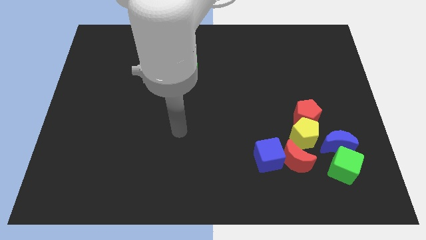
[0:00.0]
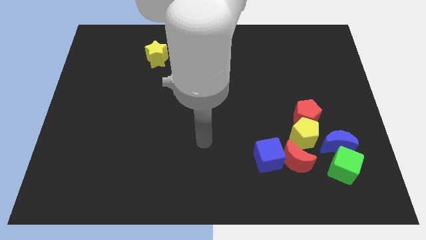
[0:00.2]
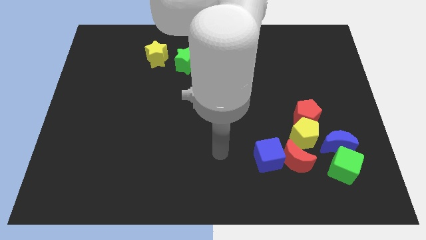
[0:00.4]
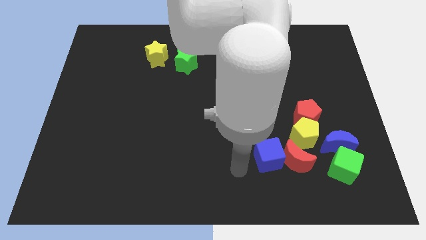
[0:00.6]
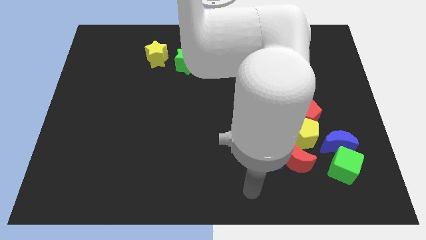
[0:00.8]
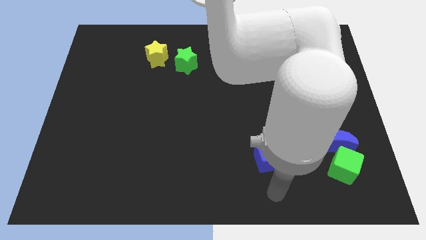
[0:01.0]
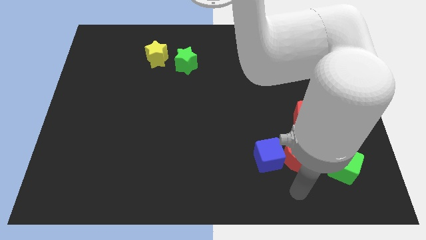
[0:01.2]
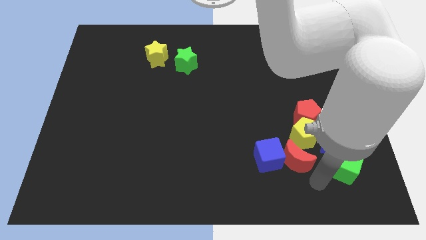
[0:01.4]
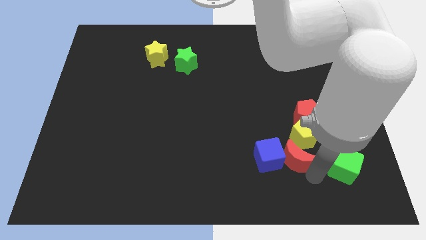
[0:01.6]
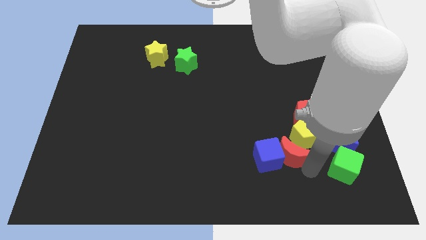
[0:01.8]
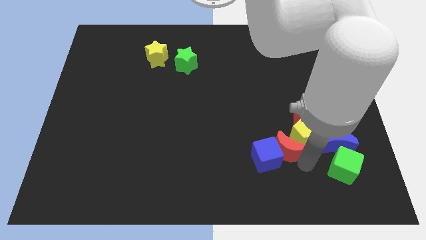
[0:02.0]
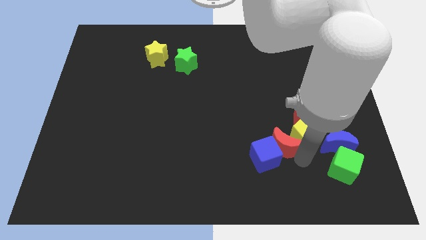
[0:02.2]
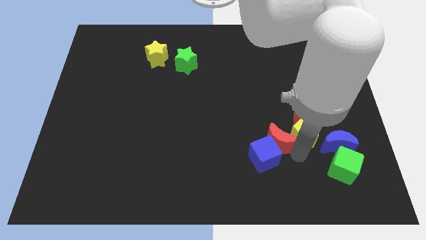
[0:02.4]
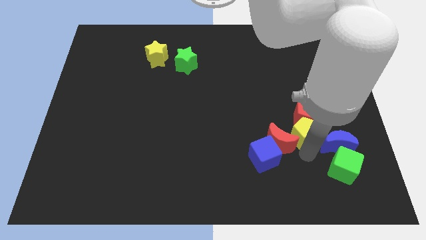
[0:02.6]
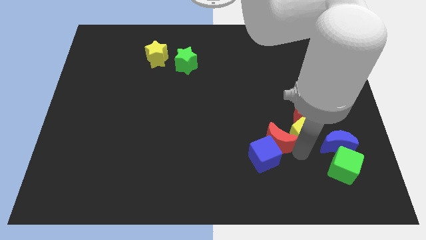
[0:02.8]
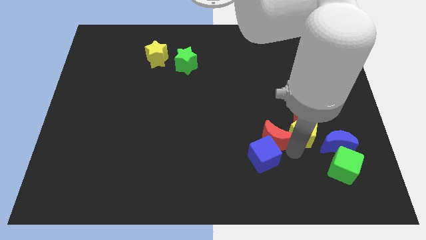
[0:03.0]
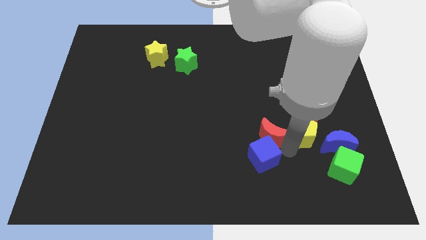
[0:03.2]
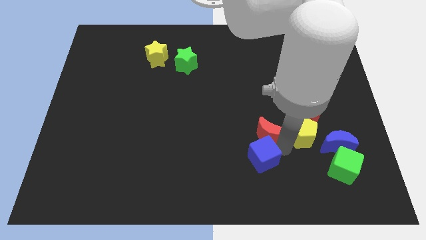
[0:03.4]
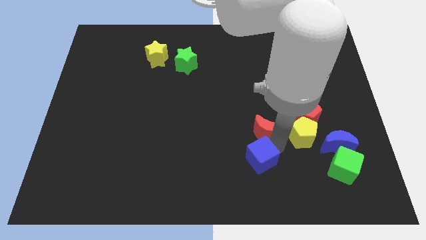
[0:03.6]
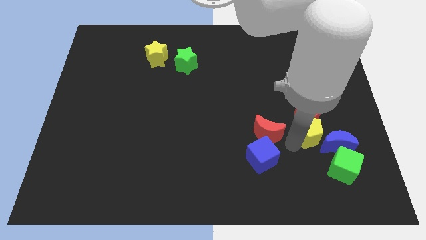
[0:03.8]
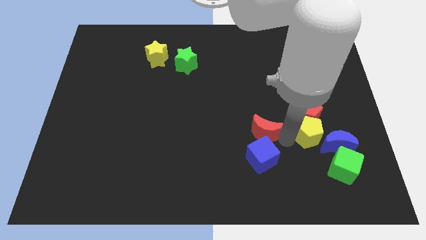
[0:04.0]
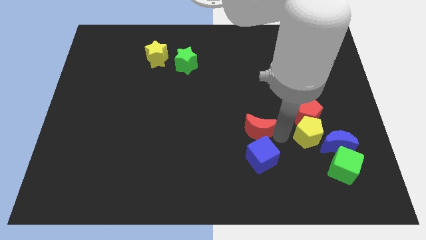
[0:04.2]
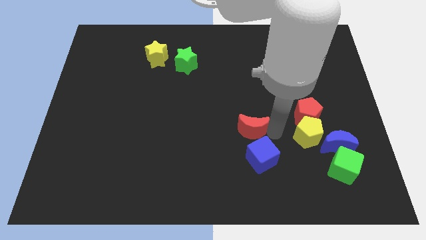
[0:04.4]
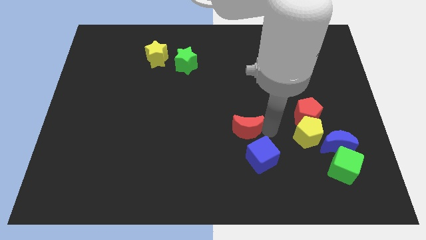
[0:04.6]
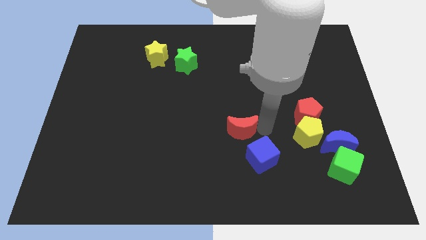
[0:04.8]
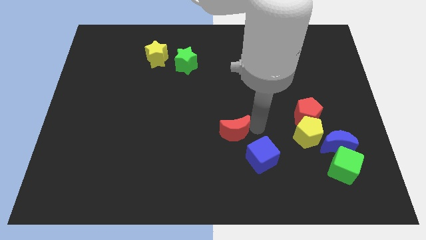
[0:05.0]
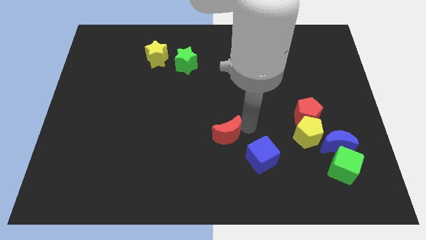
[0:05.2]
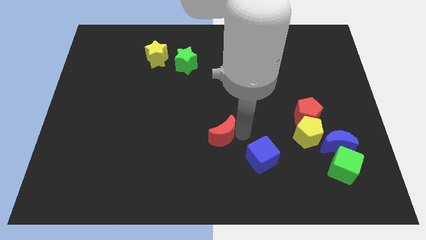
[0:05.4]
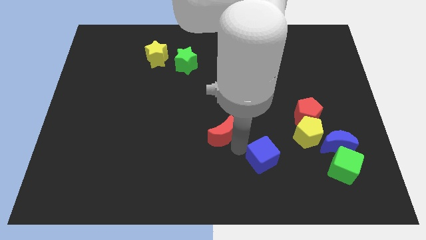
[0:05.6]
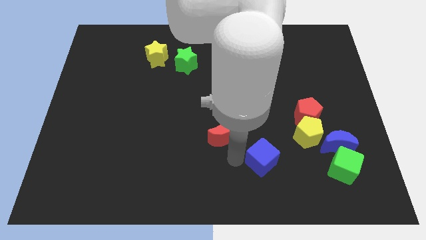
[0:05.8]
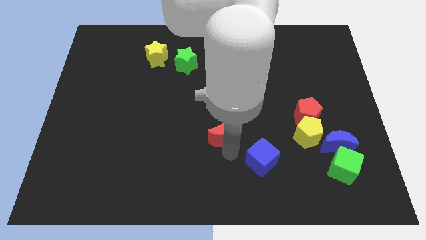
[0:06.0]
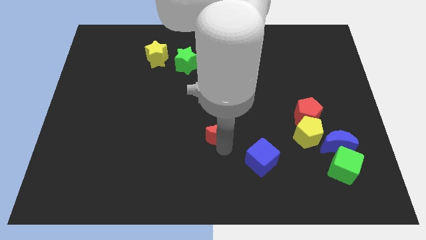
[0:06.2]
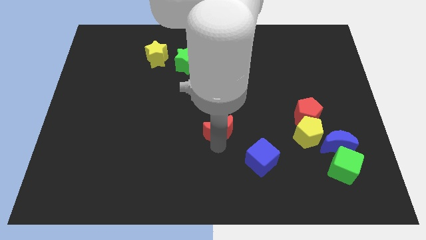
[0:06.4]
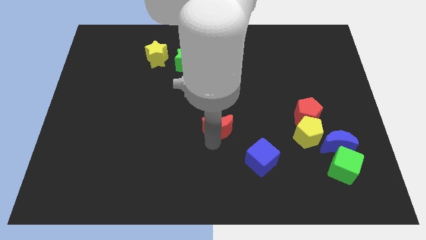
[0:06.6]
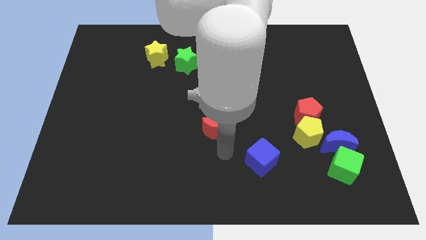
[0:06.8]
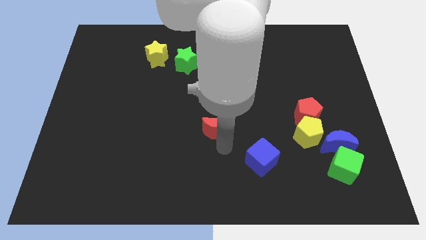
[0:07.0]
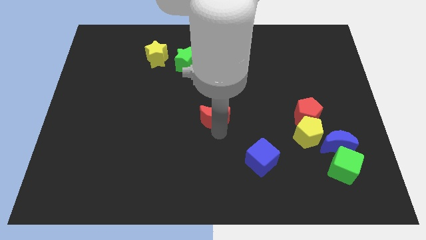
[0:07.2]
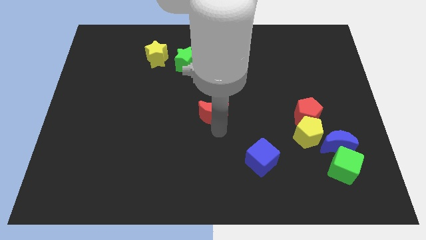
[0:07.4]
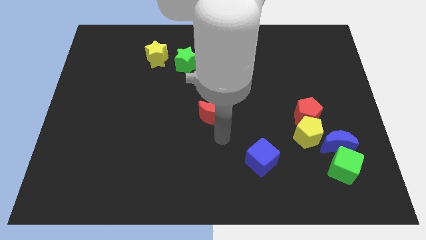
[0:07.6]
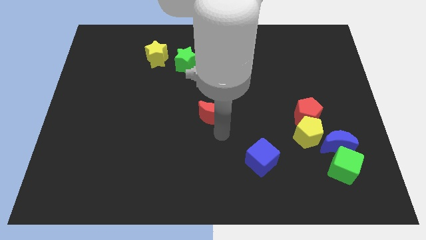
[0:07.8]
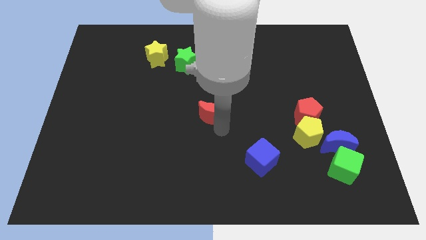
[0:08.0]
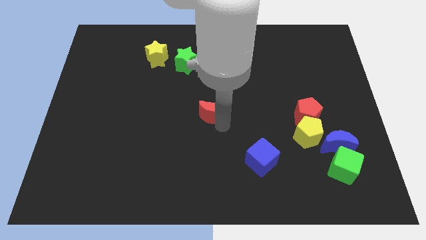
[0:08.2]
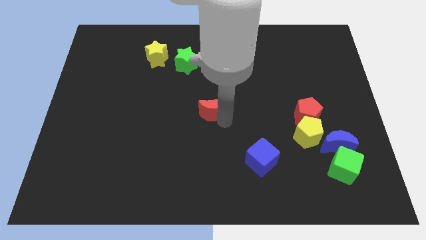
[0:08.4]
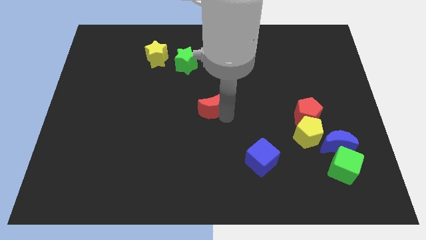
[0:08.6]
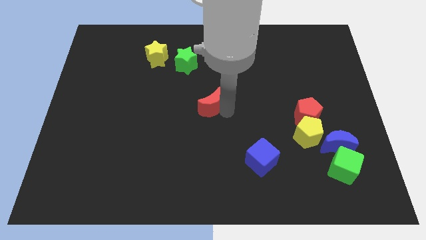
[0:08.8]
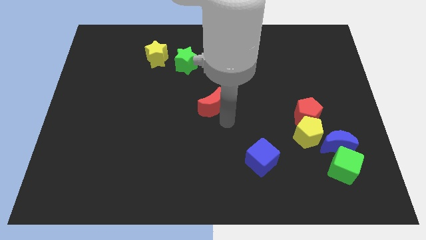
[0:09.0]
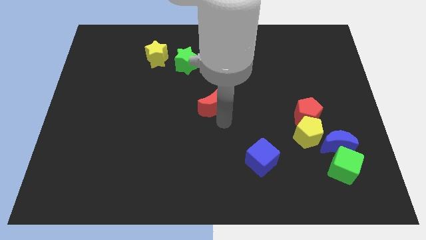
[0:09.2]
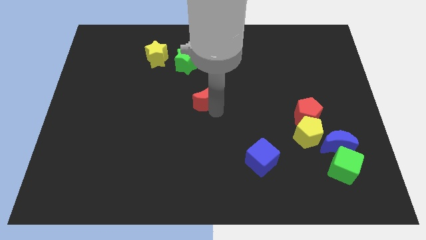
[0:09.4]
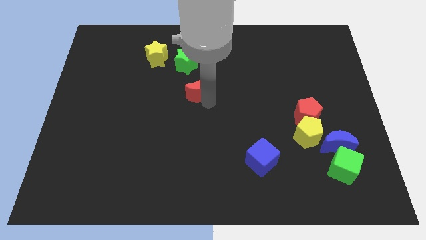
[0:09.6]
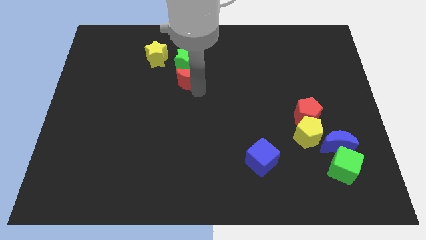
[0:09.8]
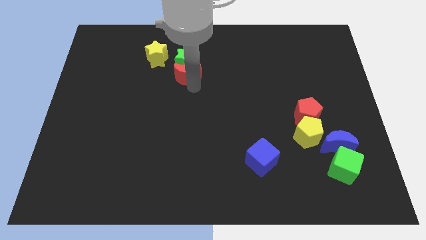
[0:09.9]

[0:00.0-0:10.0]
push the red moon close to the green star

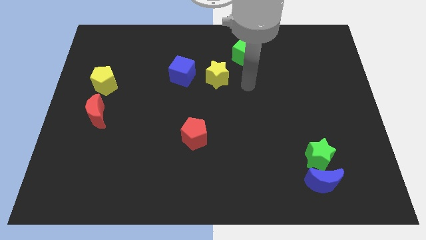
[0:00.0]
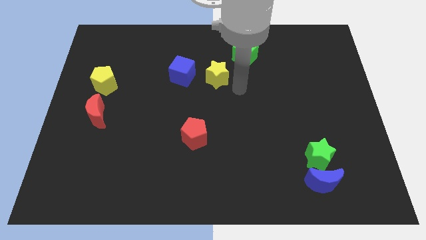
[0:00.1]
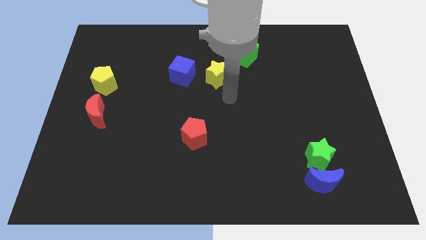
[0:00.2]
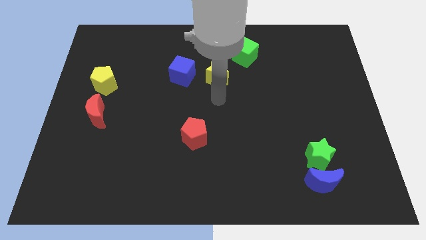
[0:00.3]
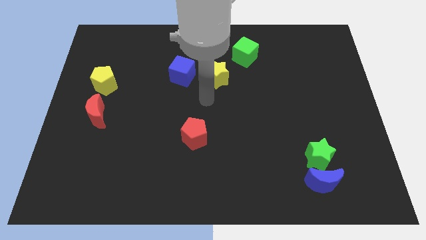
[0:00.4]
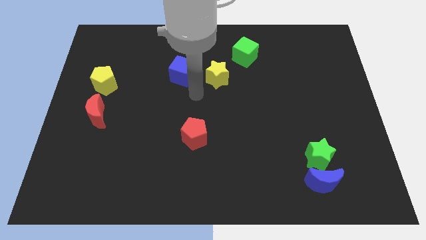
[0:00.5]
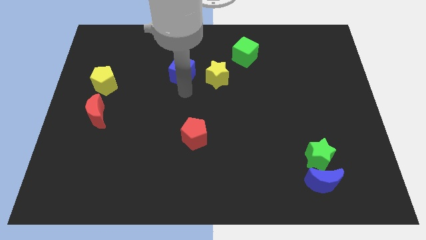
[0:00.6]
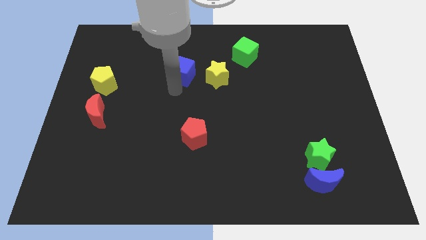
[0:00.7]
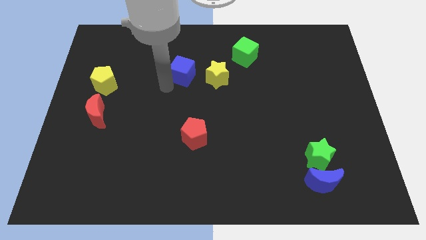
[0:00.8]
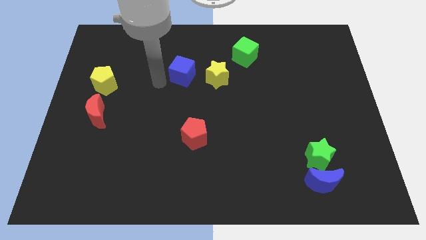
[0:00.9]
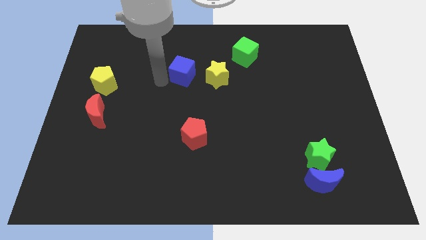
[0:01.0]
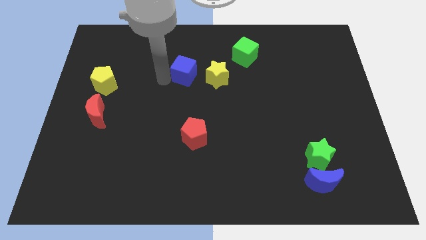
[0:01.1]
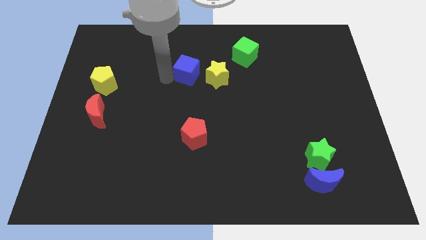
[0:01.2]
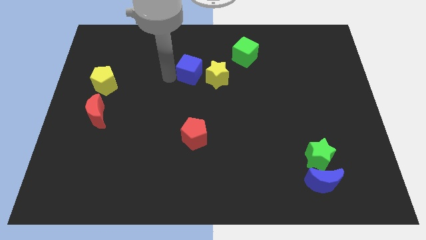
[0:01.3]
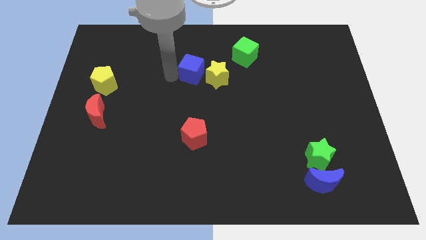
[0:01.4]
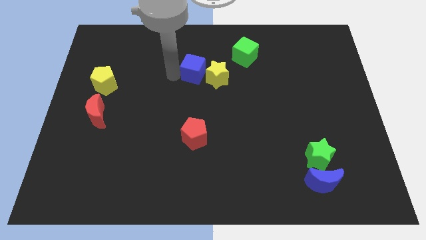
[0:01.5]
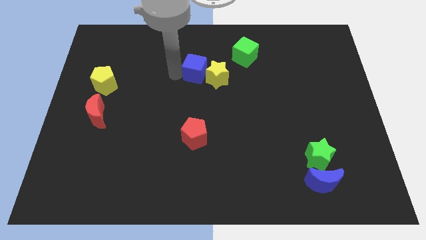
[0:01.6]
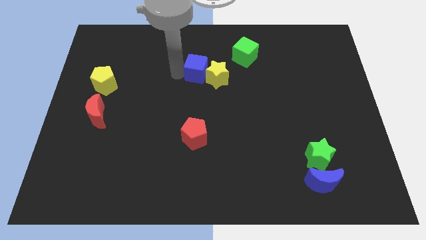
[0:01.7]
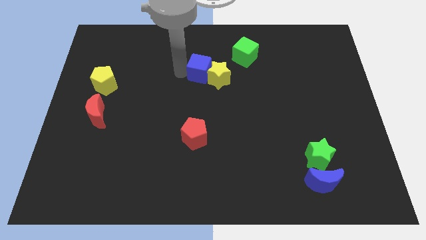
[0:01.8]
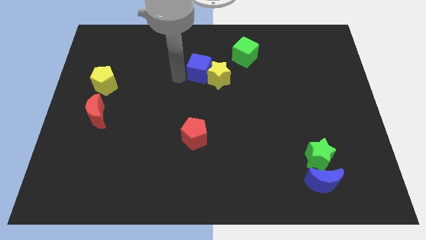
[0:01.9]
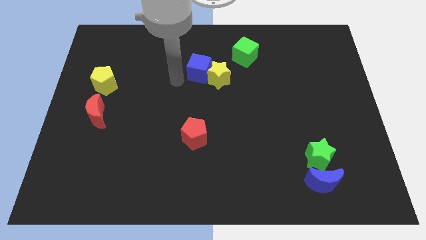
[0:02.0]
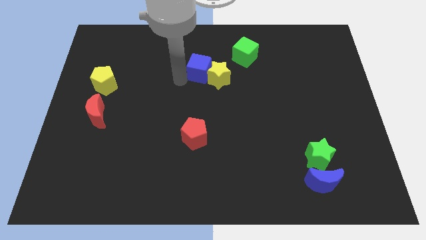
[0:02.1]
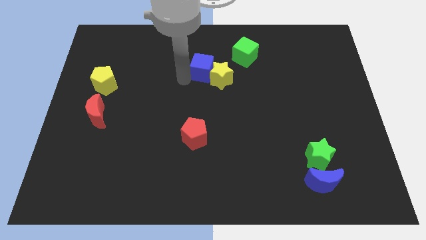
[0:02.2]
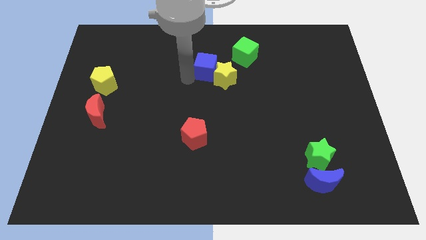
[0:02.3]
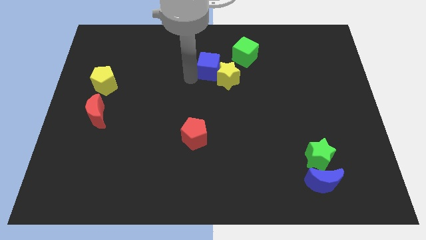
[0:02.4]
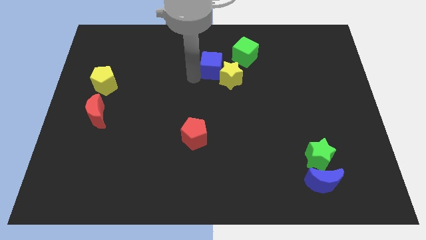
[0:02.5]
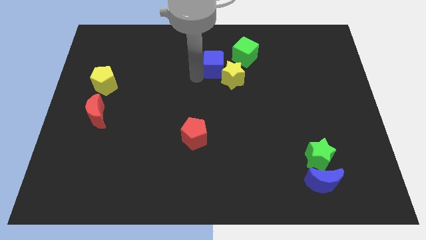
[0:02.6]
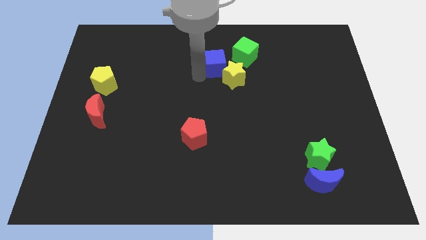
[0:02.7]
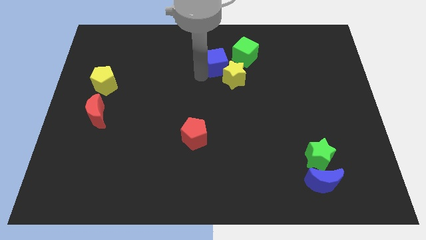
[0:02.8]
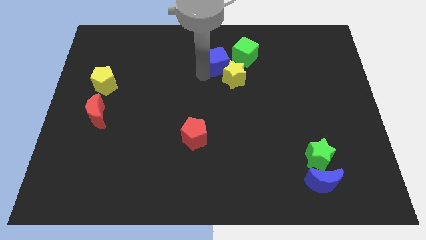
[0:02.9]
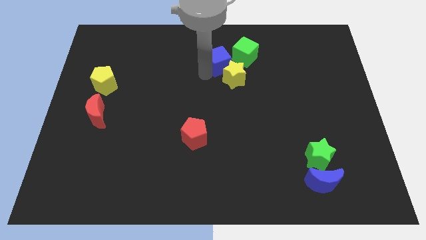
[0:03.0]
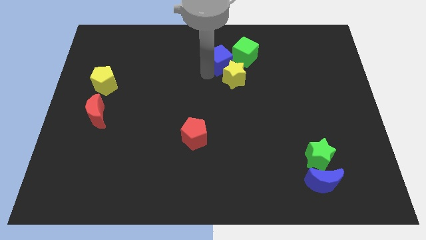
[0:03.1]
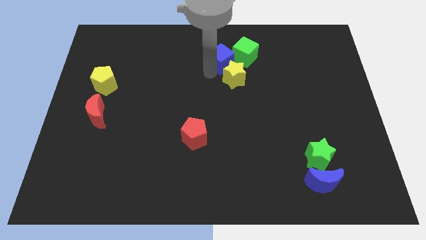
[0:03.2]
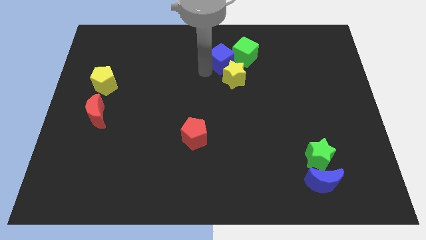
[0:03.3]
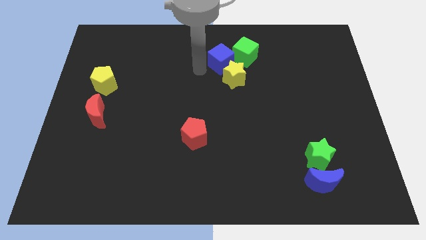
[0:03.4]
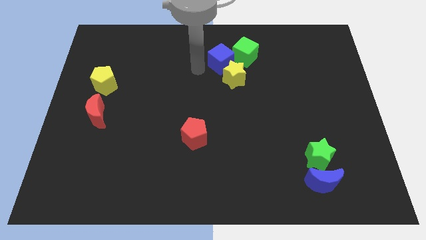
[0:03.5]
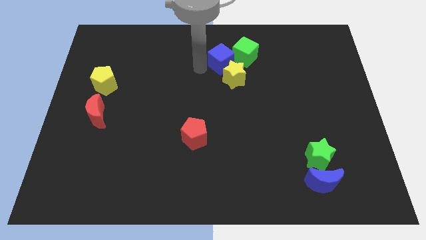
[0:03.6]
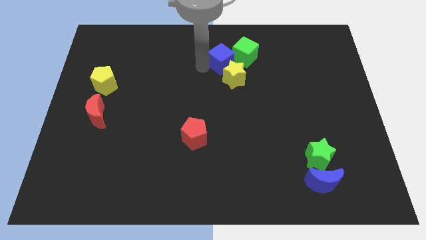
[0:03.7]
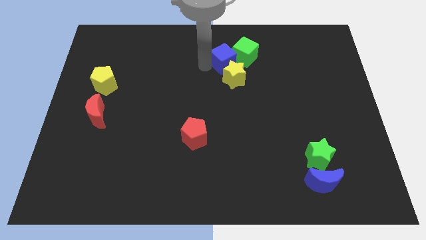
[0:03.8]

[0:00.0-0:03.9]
put the blue cube towards the green cube
